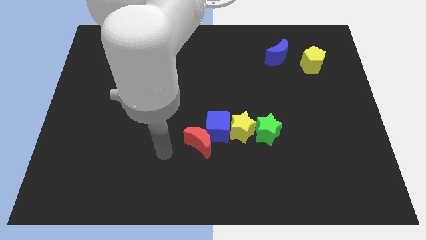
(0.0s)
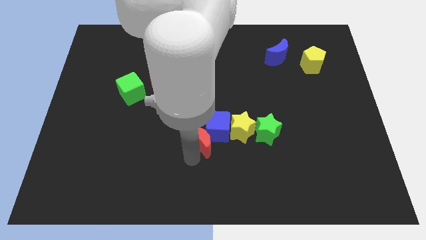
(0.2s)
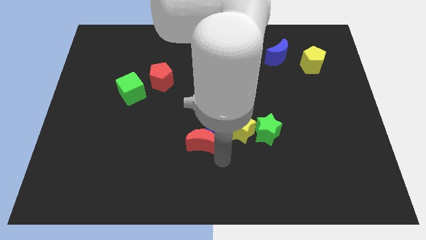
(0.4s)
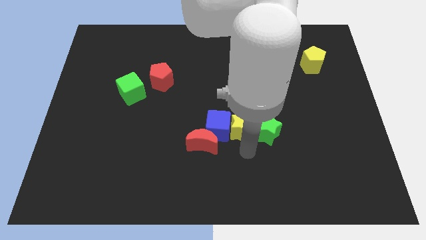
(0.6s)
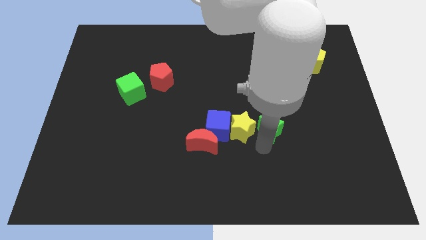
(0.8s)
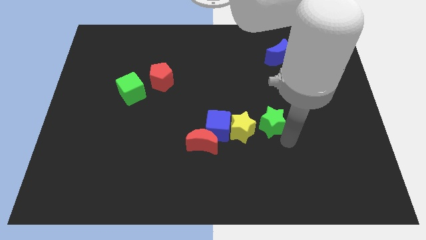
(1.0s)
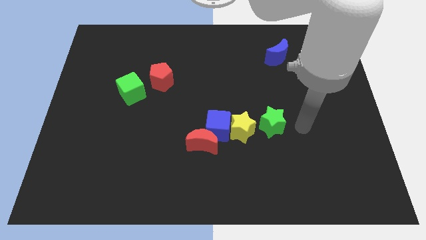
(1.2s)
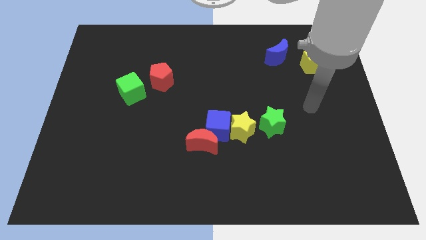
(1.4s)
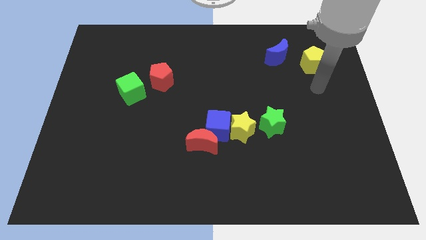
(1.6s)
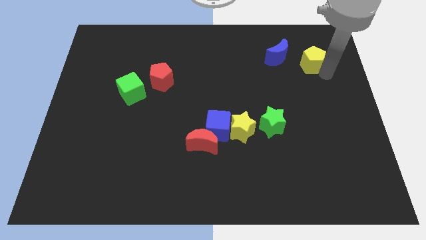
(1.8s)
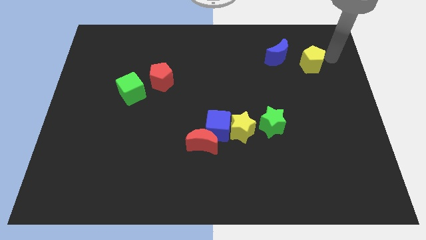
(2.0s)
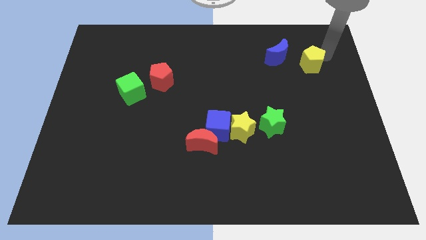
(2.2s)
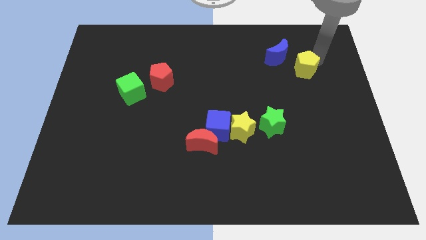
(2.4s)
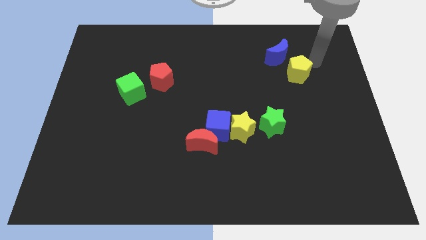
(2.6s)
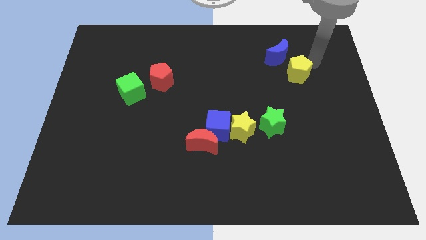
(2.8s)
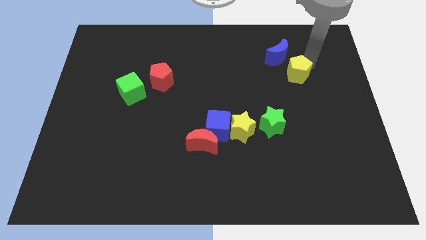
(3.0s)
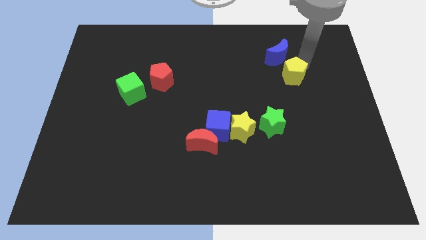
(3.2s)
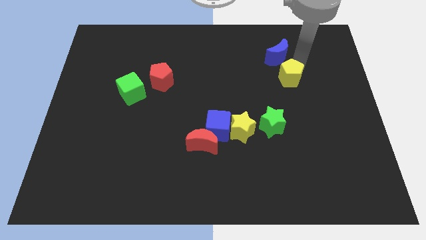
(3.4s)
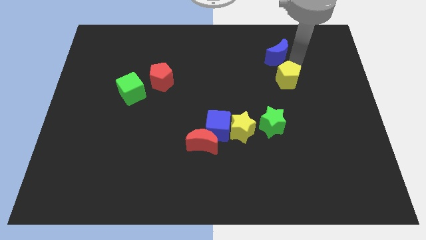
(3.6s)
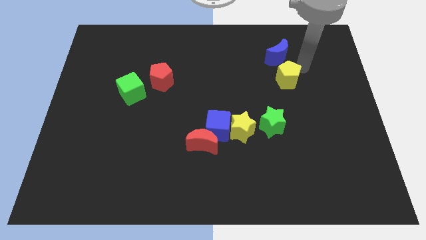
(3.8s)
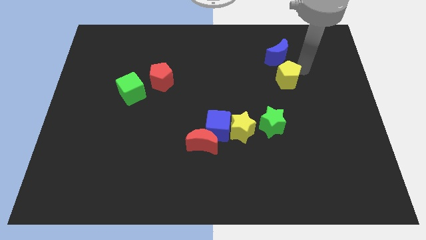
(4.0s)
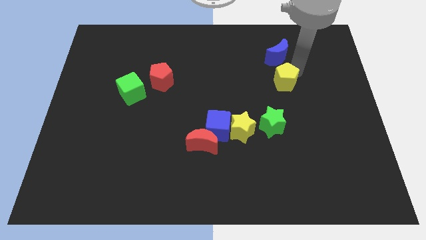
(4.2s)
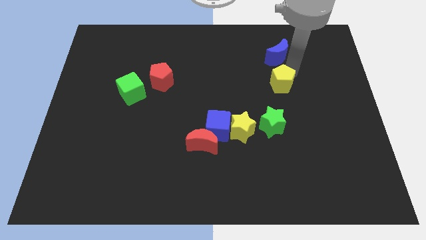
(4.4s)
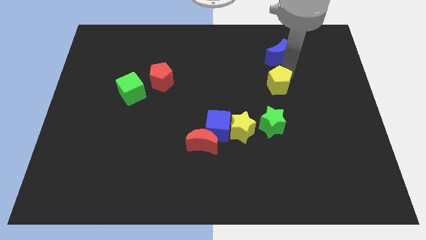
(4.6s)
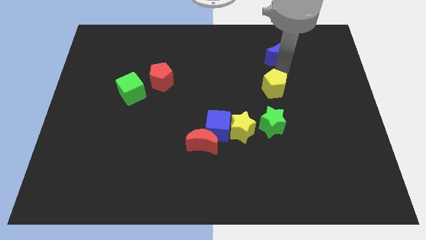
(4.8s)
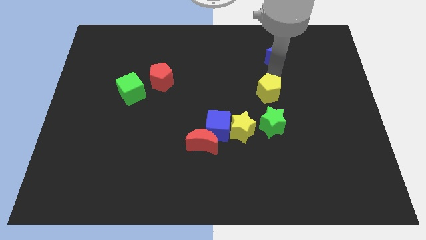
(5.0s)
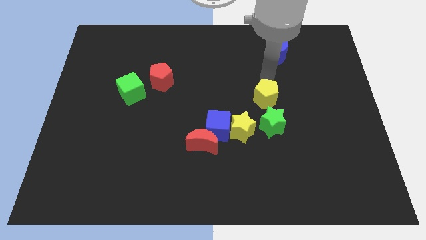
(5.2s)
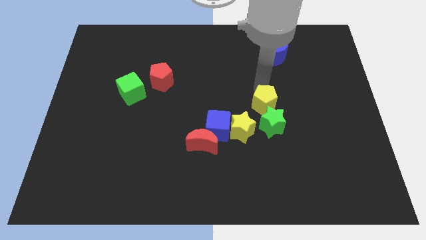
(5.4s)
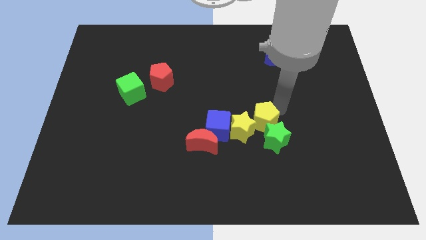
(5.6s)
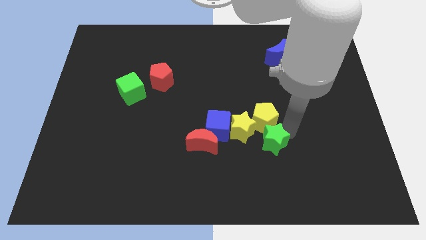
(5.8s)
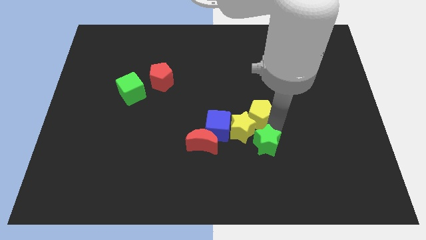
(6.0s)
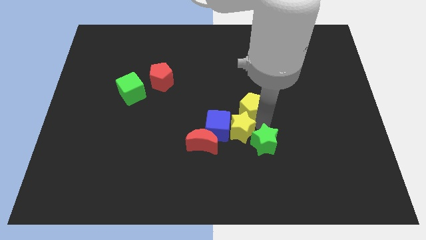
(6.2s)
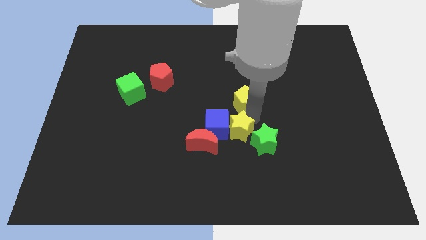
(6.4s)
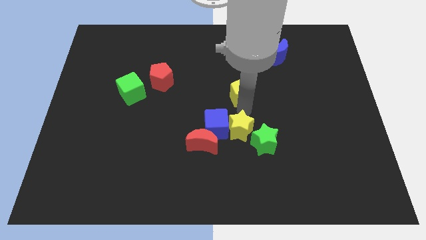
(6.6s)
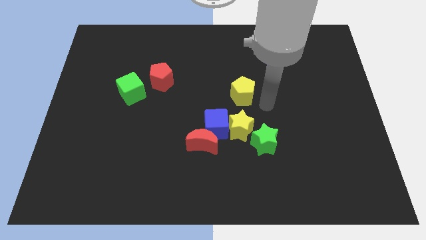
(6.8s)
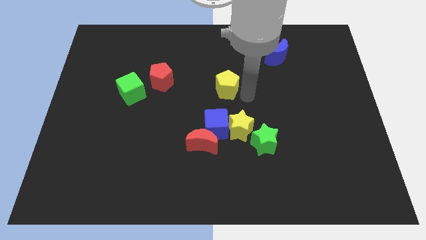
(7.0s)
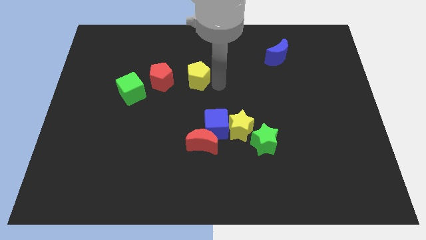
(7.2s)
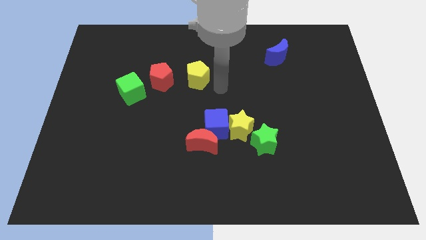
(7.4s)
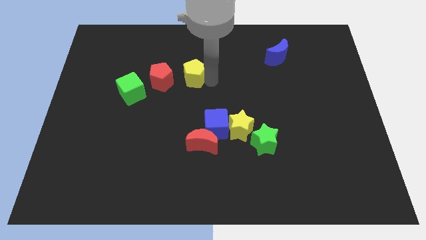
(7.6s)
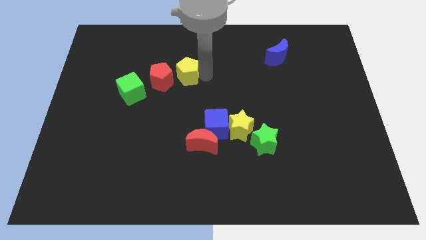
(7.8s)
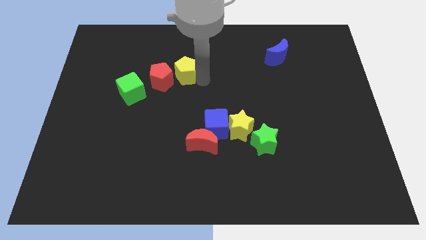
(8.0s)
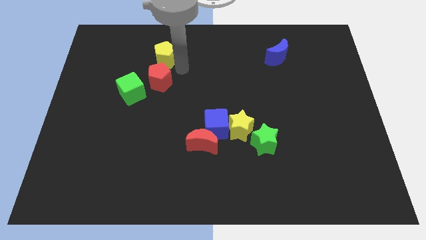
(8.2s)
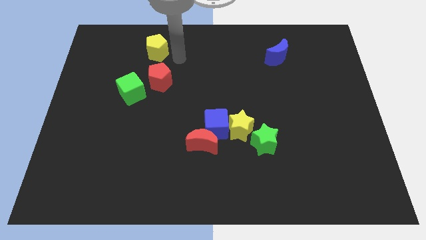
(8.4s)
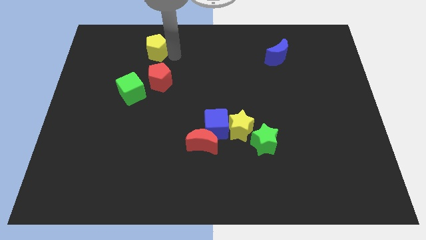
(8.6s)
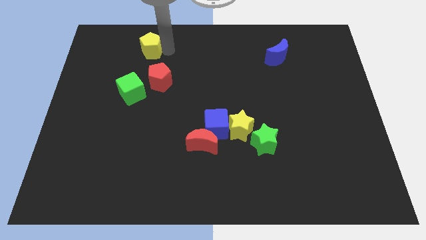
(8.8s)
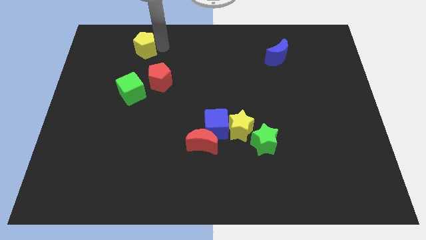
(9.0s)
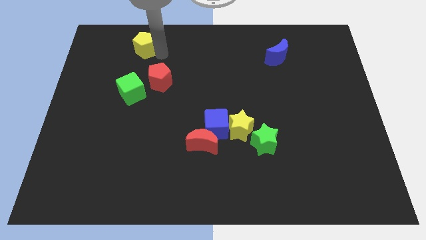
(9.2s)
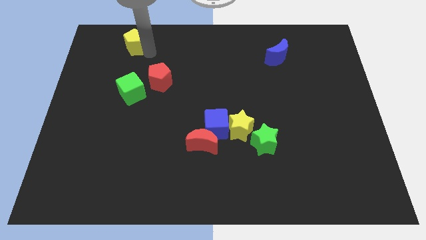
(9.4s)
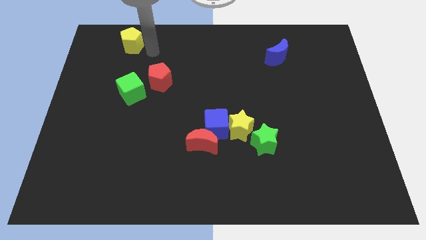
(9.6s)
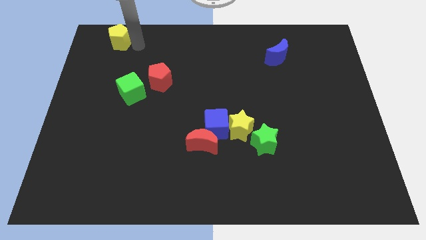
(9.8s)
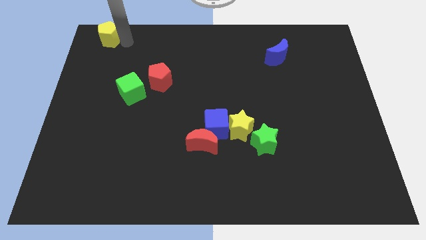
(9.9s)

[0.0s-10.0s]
push the yellow pentagon to the upper left corner

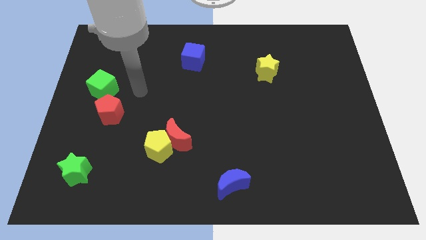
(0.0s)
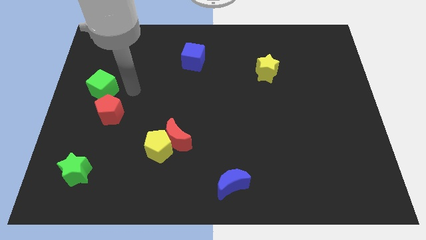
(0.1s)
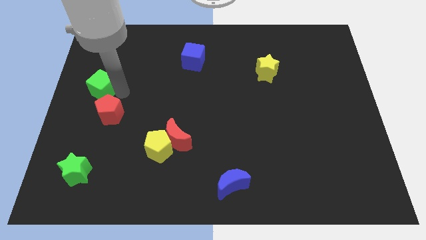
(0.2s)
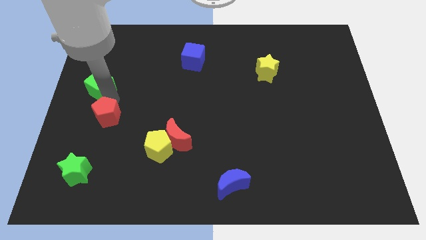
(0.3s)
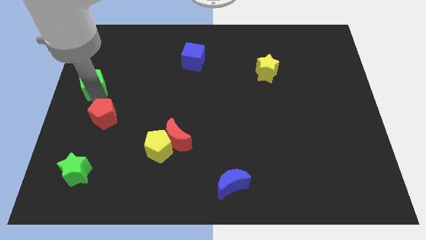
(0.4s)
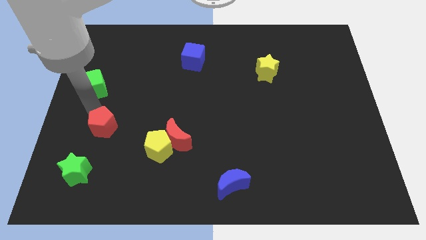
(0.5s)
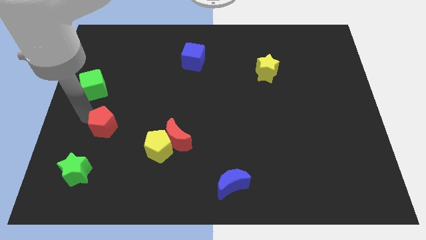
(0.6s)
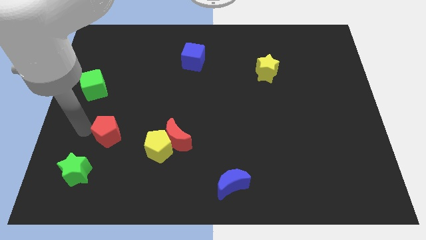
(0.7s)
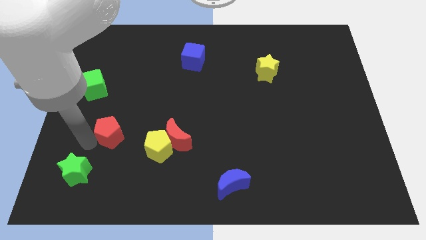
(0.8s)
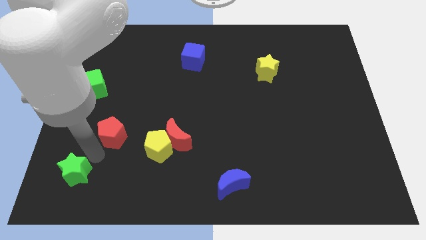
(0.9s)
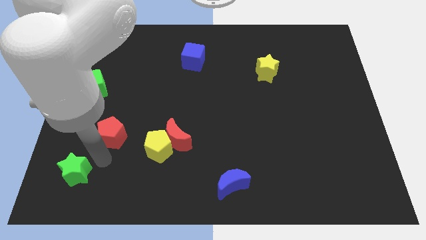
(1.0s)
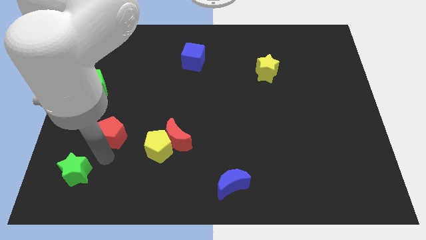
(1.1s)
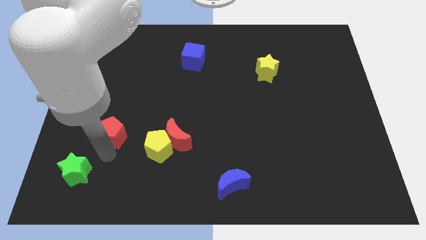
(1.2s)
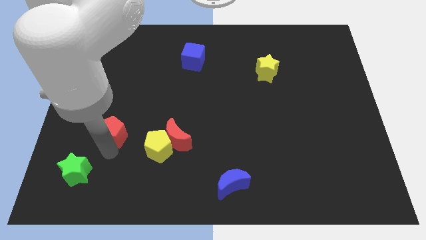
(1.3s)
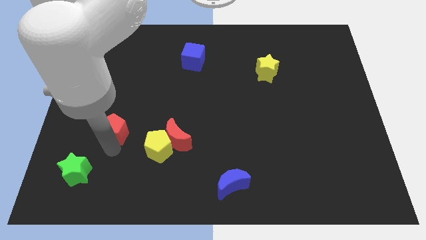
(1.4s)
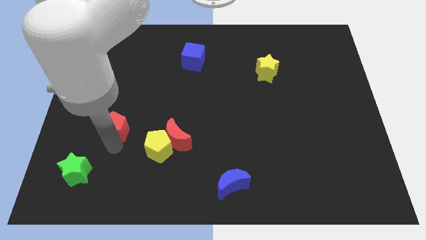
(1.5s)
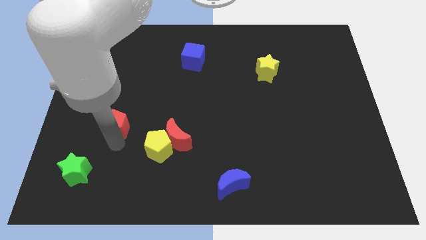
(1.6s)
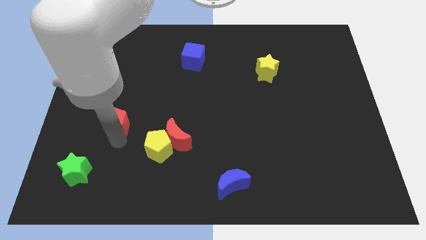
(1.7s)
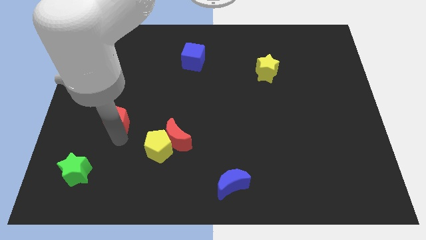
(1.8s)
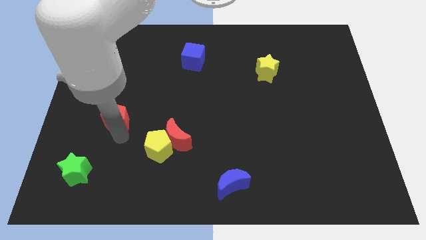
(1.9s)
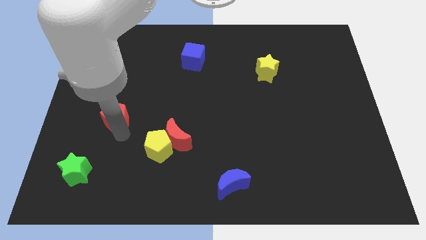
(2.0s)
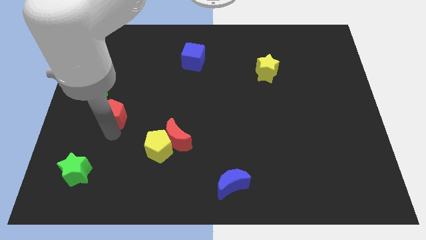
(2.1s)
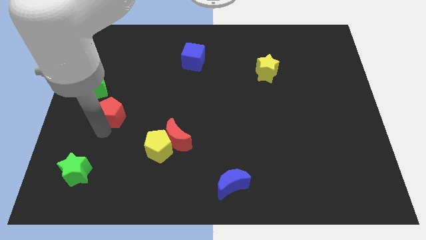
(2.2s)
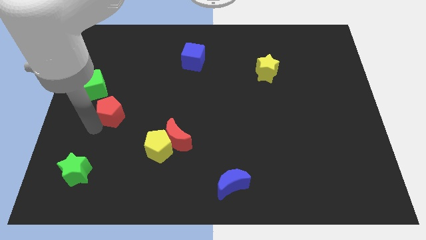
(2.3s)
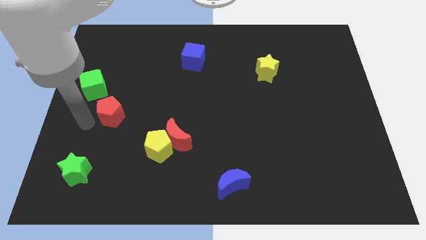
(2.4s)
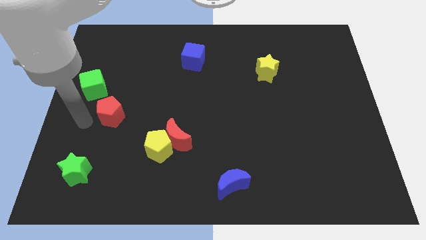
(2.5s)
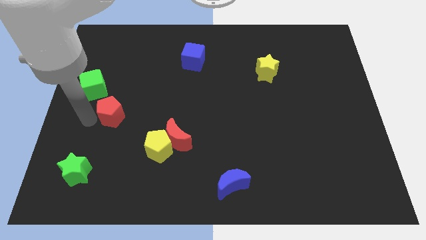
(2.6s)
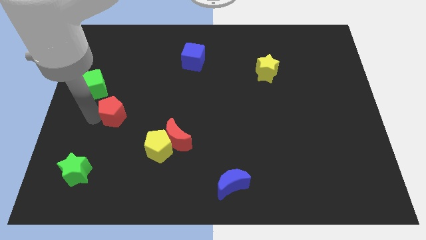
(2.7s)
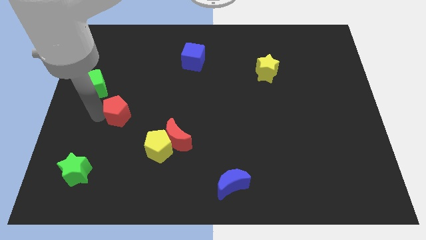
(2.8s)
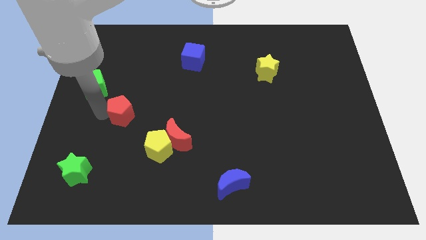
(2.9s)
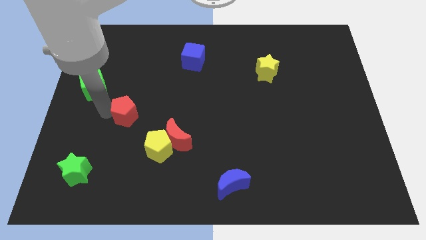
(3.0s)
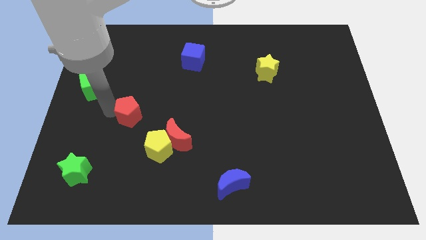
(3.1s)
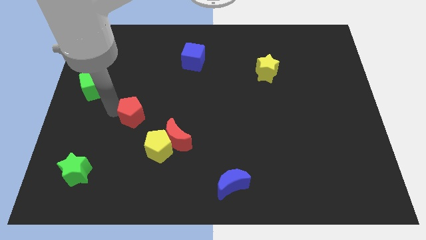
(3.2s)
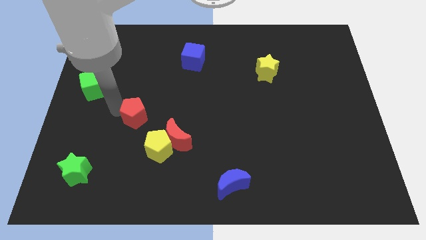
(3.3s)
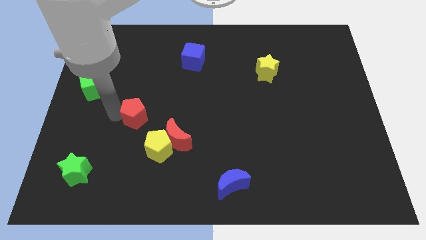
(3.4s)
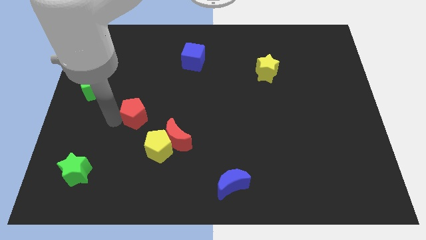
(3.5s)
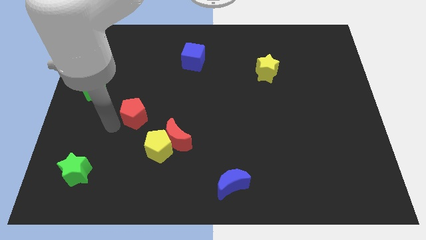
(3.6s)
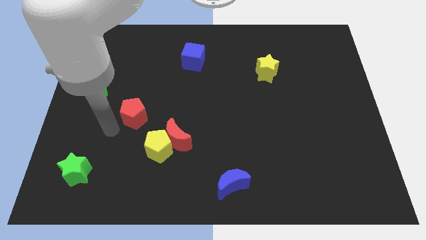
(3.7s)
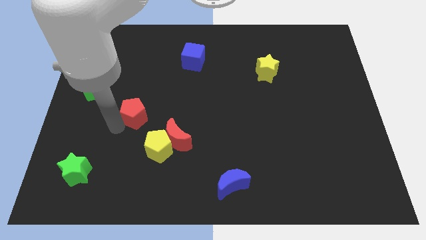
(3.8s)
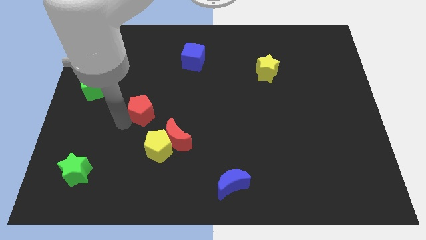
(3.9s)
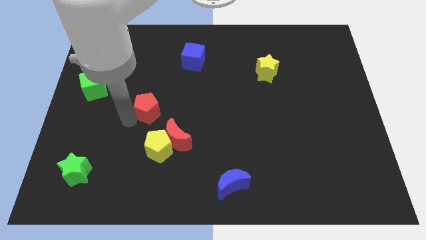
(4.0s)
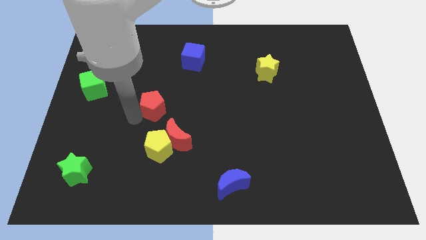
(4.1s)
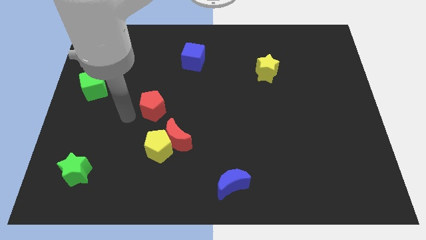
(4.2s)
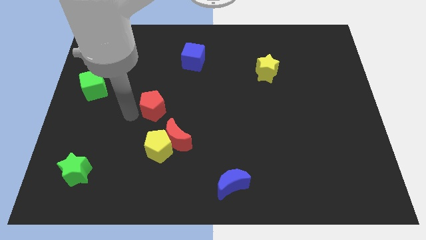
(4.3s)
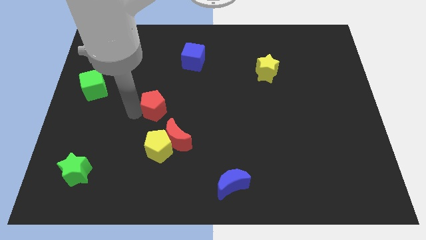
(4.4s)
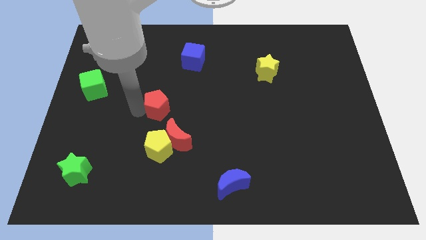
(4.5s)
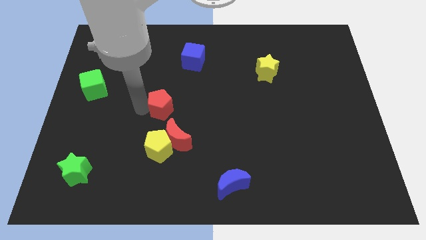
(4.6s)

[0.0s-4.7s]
push the red pentagon to the middle of the board
